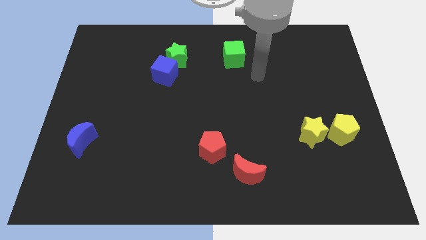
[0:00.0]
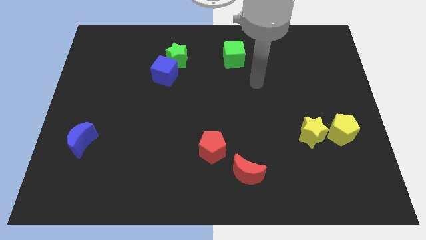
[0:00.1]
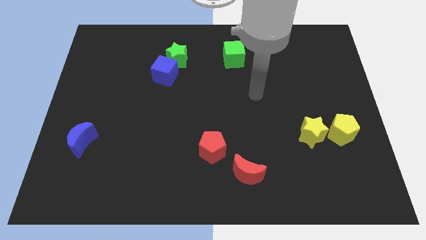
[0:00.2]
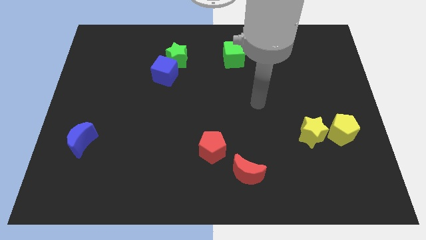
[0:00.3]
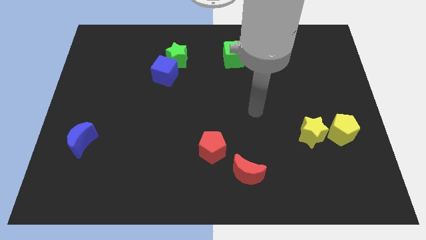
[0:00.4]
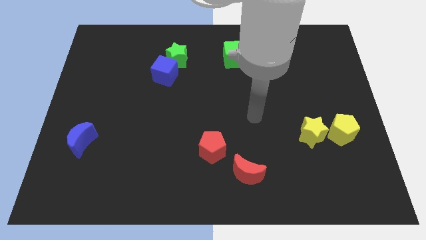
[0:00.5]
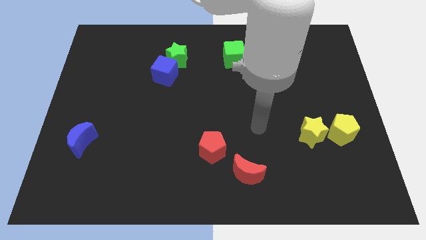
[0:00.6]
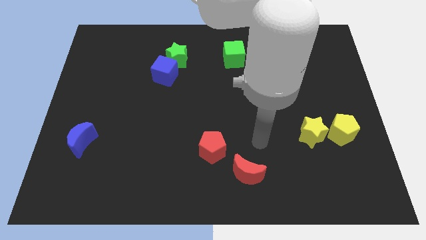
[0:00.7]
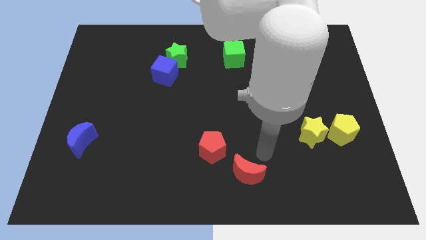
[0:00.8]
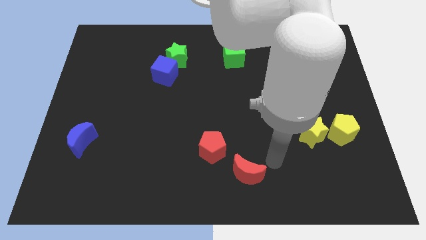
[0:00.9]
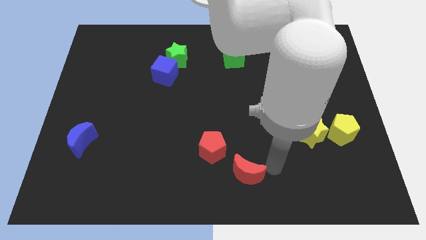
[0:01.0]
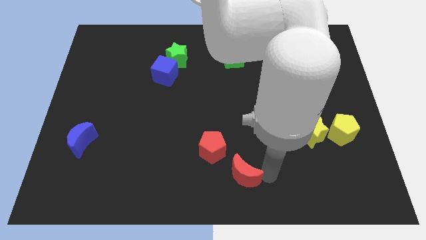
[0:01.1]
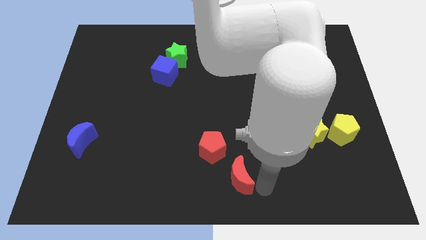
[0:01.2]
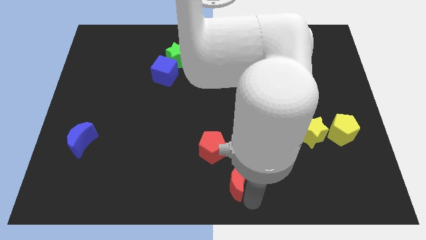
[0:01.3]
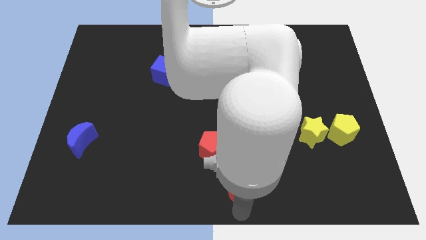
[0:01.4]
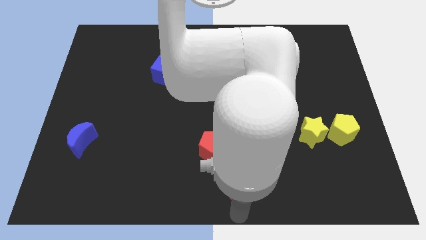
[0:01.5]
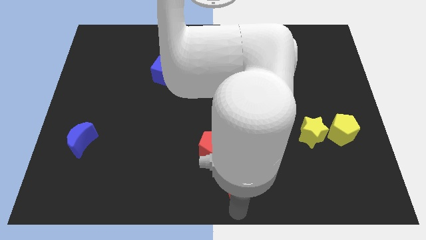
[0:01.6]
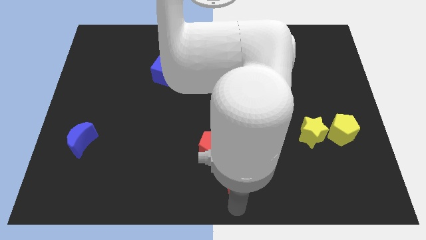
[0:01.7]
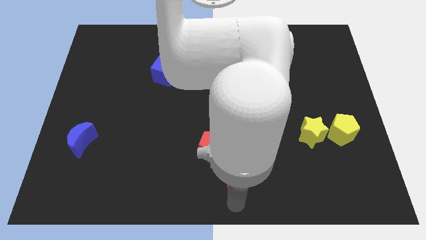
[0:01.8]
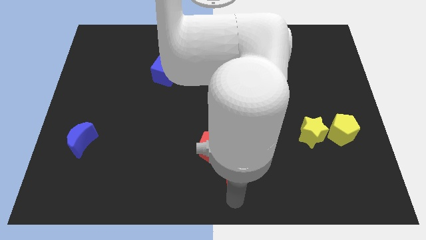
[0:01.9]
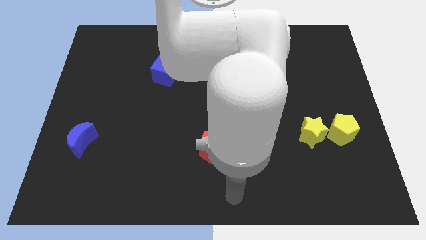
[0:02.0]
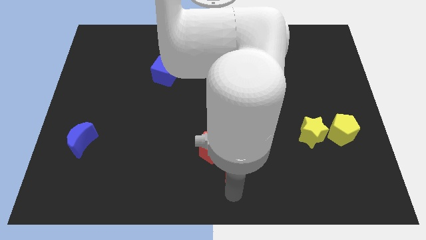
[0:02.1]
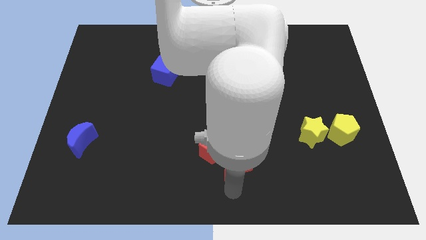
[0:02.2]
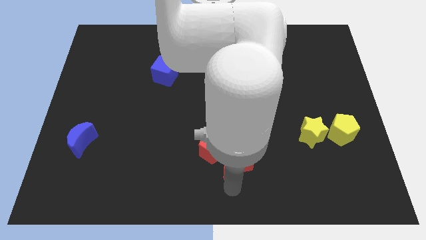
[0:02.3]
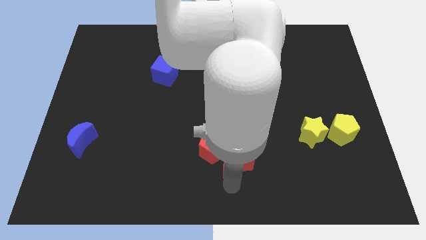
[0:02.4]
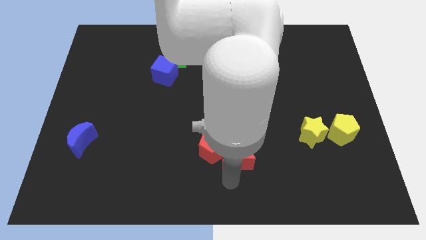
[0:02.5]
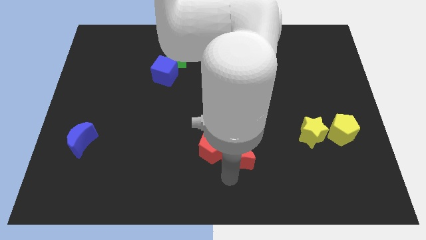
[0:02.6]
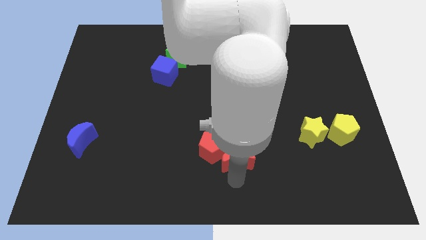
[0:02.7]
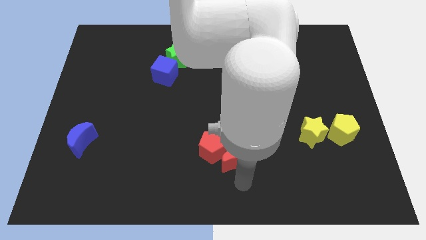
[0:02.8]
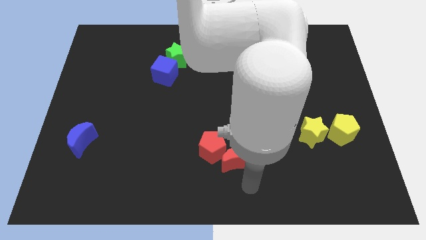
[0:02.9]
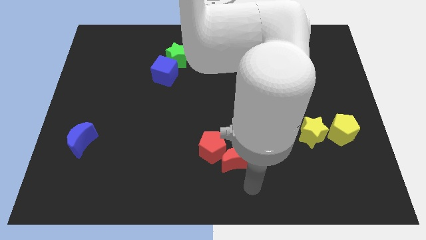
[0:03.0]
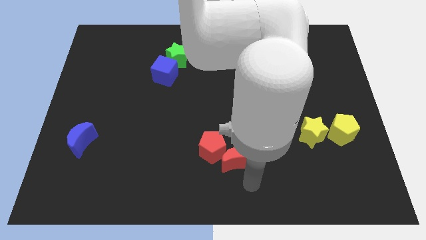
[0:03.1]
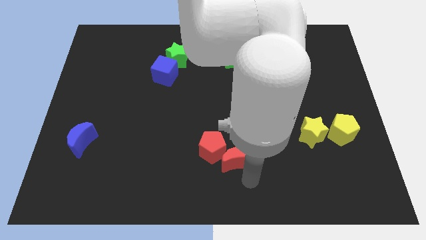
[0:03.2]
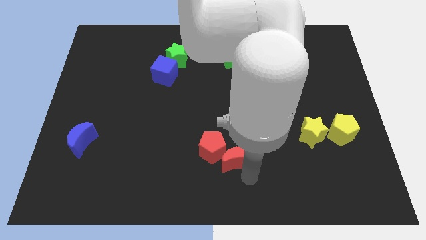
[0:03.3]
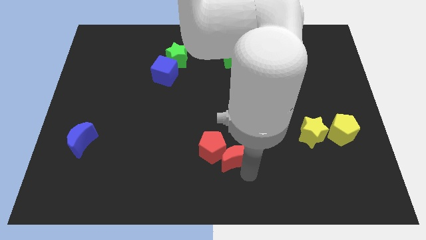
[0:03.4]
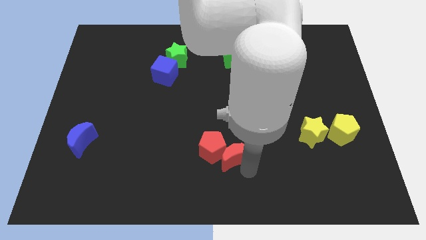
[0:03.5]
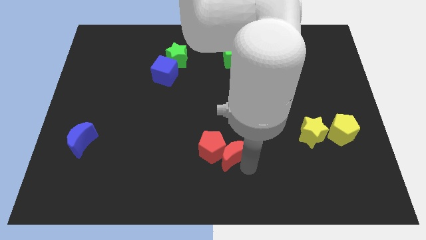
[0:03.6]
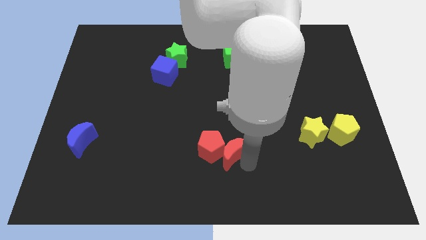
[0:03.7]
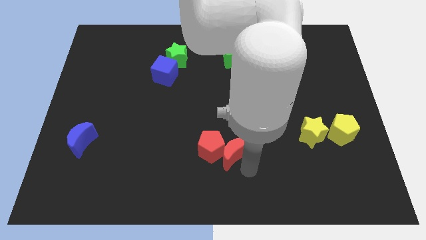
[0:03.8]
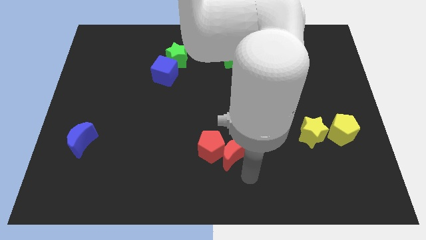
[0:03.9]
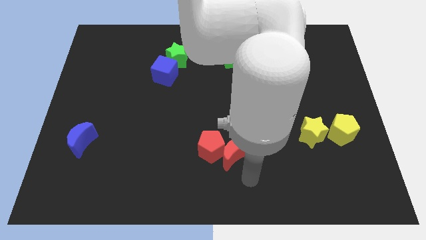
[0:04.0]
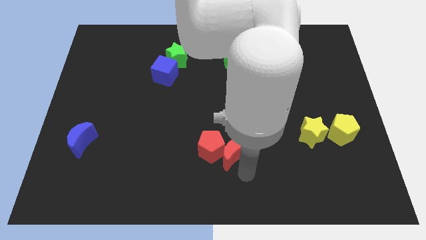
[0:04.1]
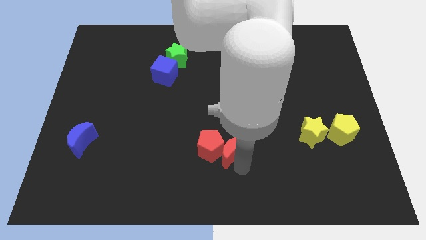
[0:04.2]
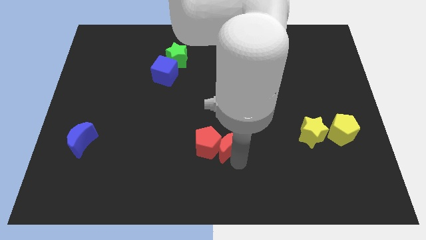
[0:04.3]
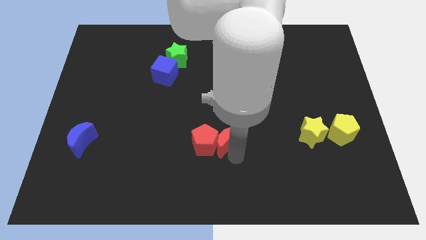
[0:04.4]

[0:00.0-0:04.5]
push the red moon a little up and left

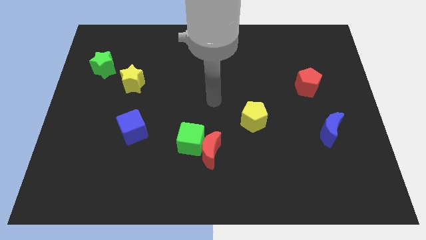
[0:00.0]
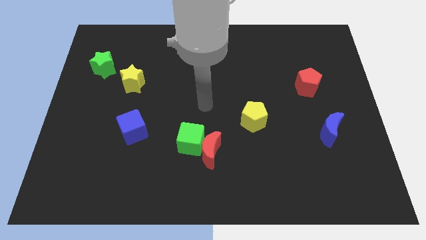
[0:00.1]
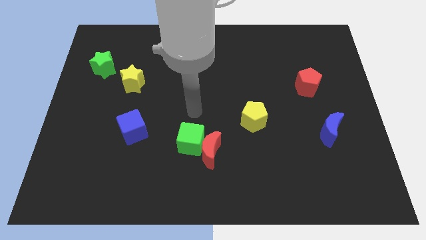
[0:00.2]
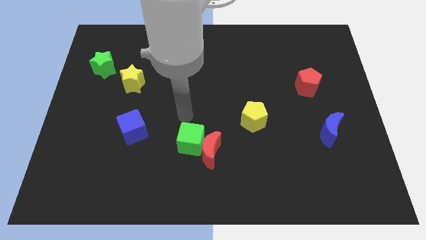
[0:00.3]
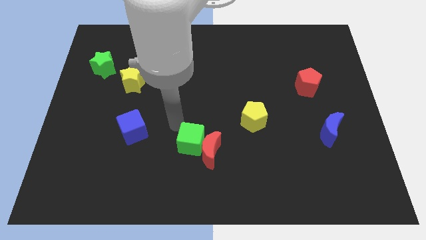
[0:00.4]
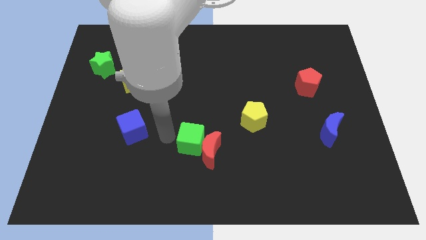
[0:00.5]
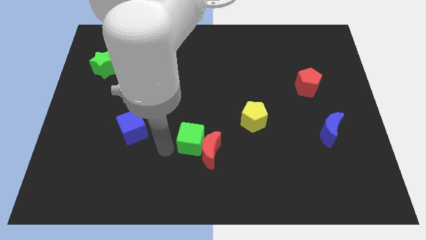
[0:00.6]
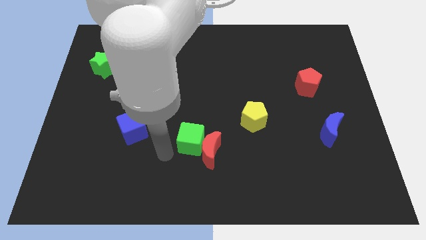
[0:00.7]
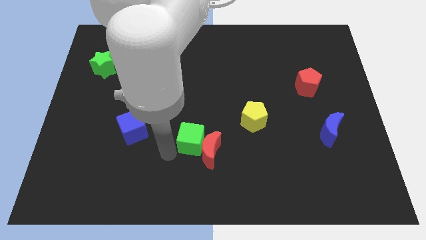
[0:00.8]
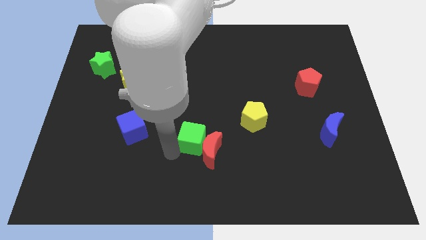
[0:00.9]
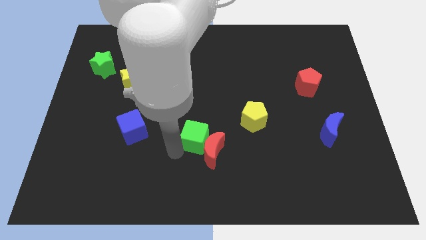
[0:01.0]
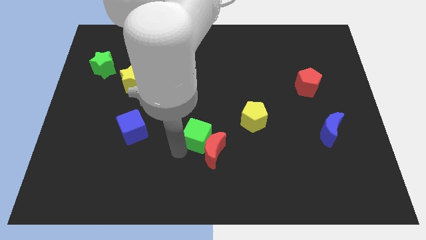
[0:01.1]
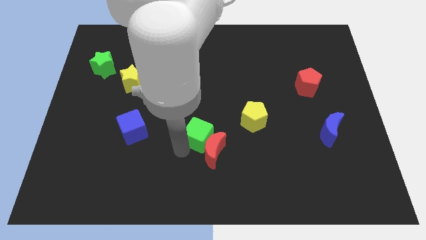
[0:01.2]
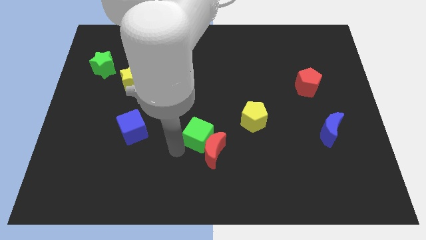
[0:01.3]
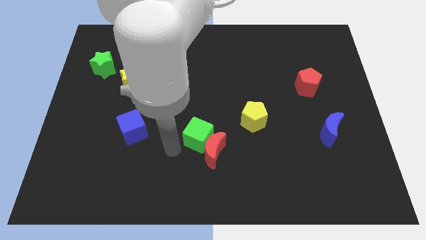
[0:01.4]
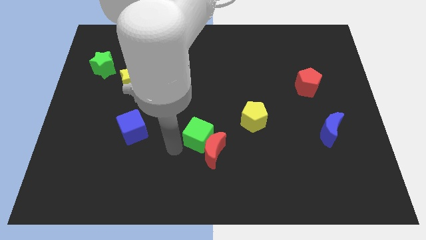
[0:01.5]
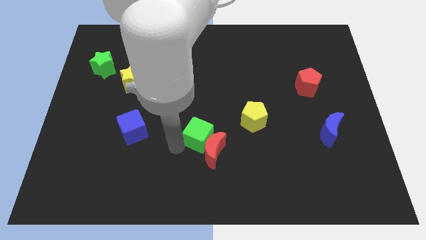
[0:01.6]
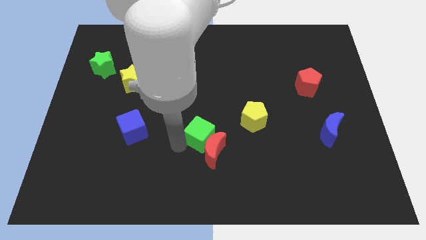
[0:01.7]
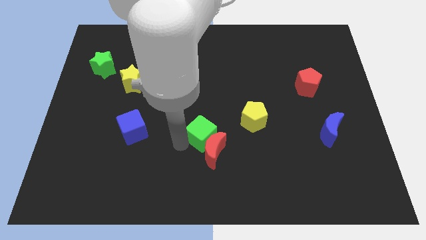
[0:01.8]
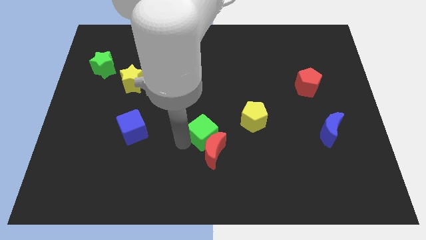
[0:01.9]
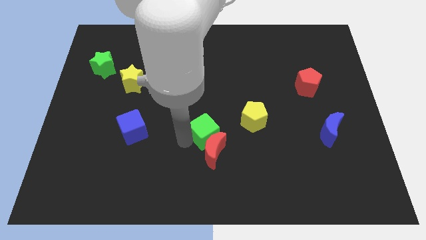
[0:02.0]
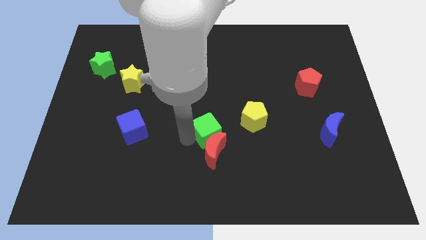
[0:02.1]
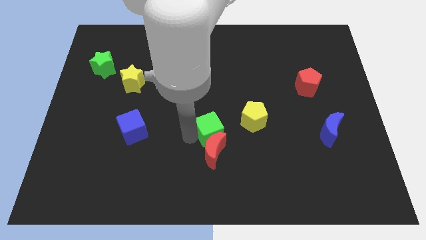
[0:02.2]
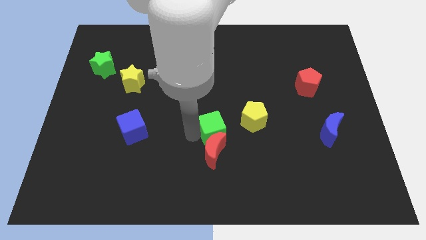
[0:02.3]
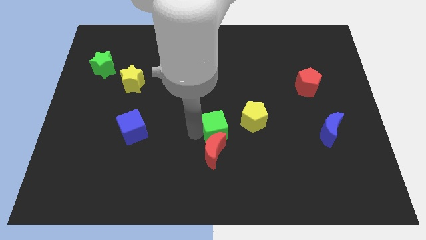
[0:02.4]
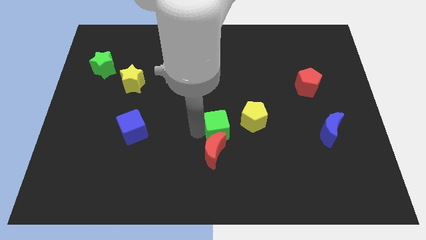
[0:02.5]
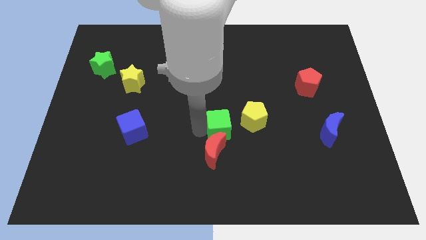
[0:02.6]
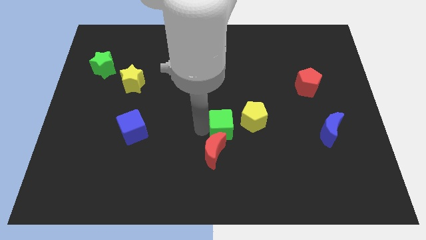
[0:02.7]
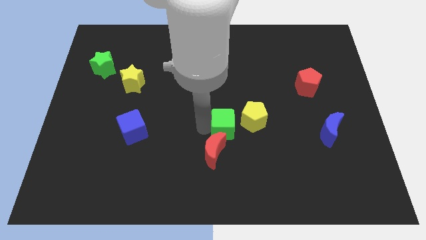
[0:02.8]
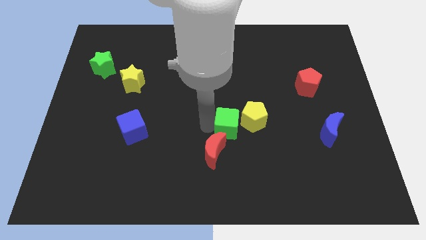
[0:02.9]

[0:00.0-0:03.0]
push the green cube a bit right

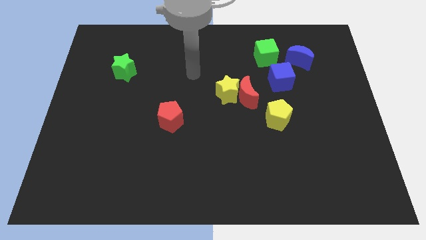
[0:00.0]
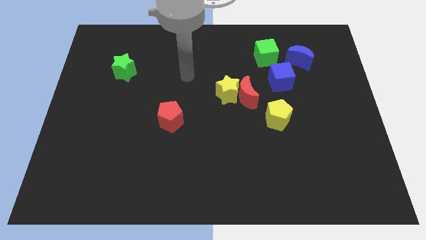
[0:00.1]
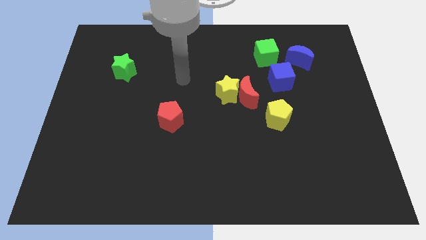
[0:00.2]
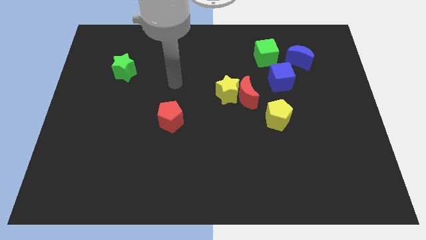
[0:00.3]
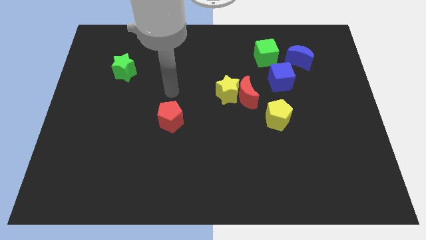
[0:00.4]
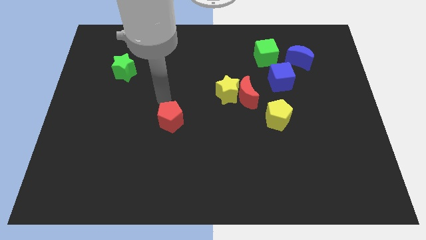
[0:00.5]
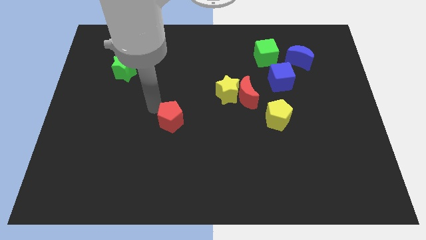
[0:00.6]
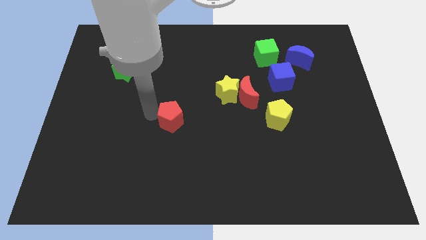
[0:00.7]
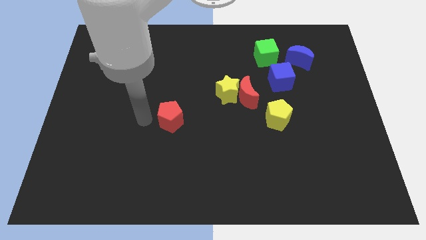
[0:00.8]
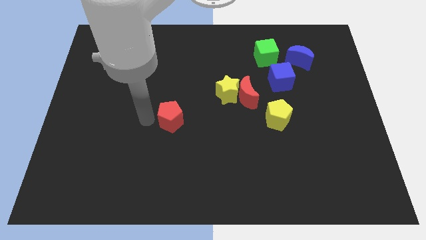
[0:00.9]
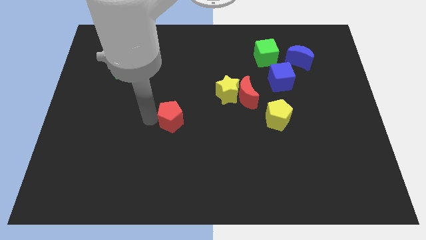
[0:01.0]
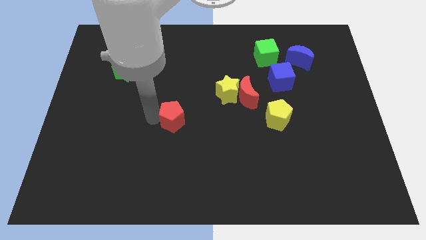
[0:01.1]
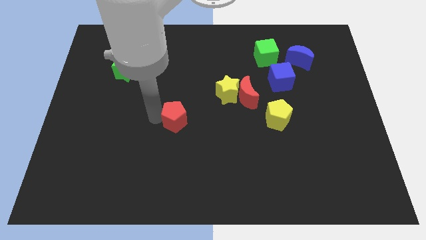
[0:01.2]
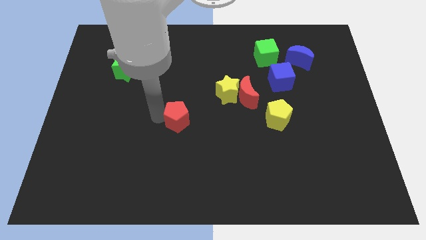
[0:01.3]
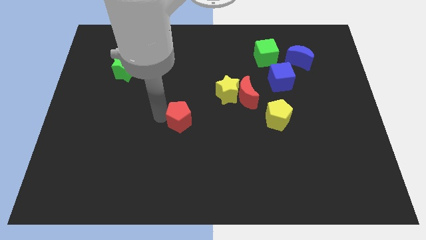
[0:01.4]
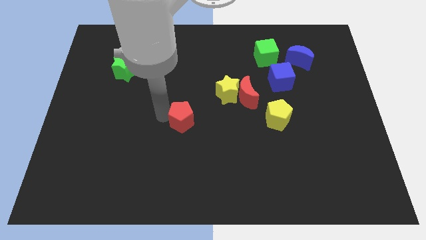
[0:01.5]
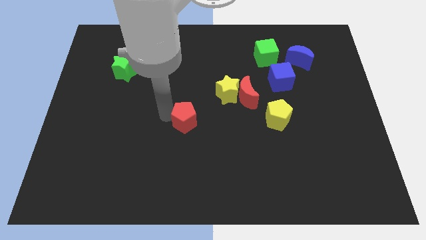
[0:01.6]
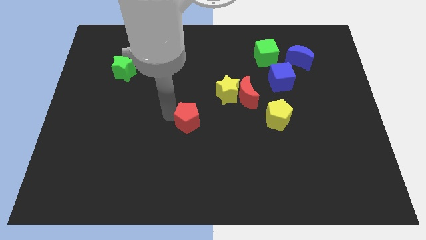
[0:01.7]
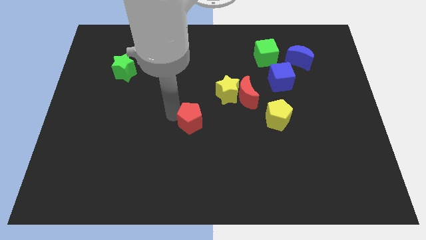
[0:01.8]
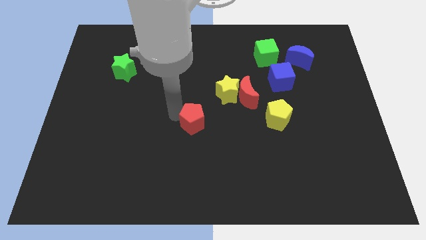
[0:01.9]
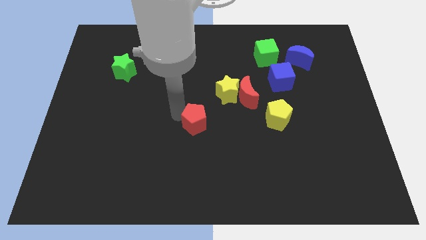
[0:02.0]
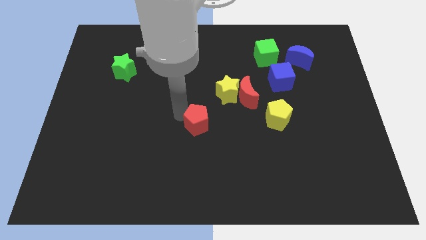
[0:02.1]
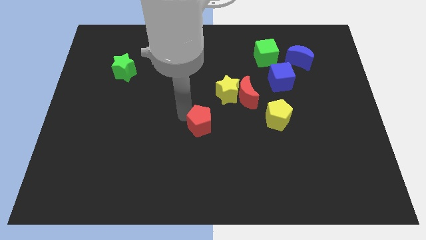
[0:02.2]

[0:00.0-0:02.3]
slightly move the red pentagon to the right
